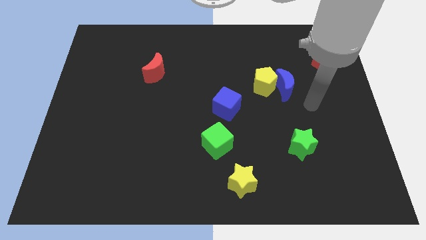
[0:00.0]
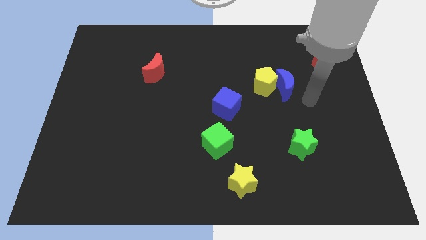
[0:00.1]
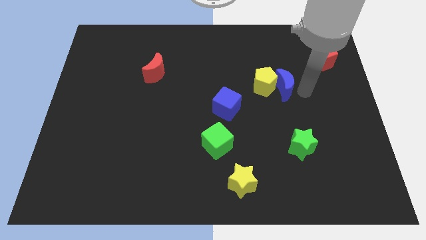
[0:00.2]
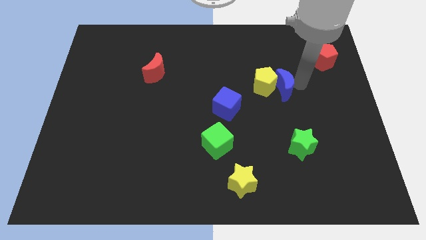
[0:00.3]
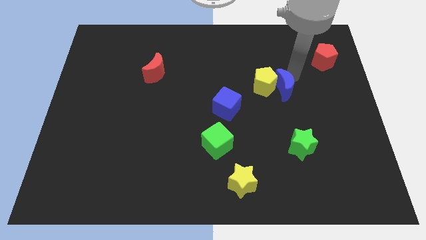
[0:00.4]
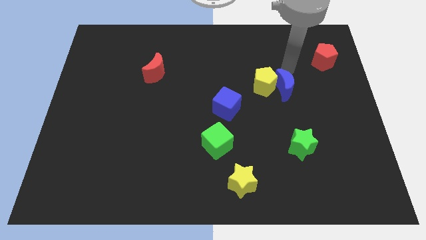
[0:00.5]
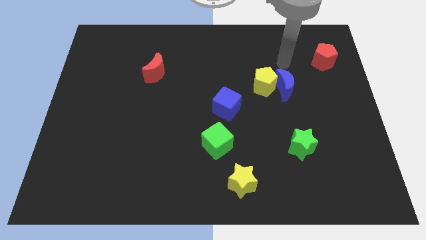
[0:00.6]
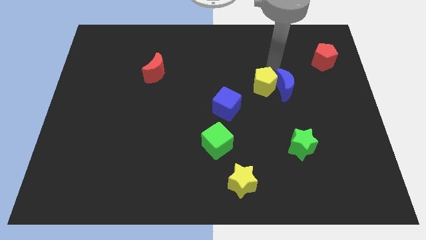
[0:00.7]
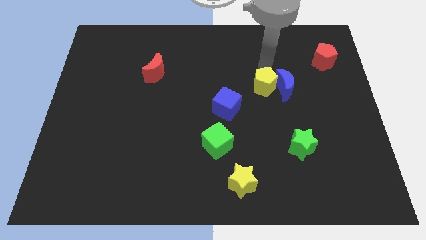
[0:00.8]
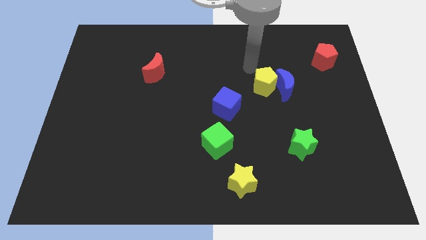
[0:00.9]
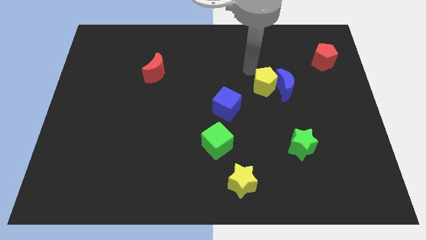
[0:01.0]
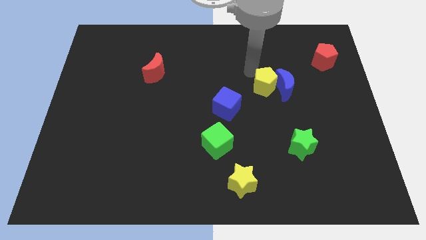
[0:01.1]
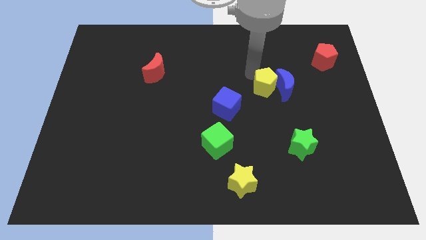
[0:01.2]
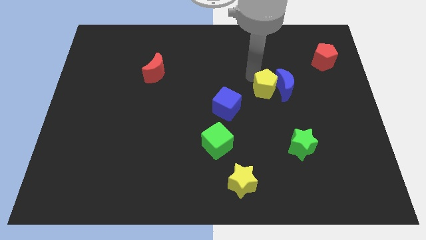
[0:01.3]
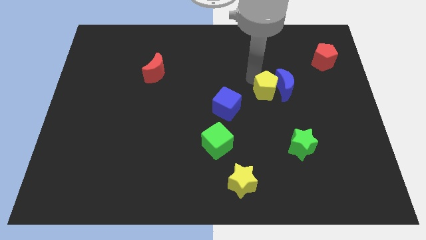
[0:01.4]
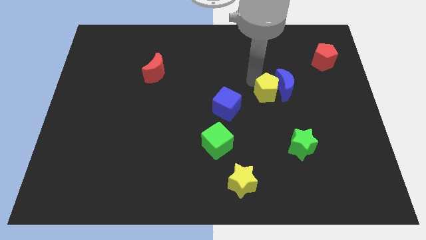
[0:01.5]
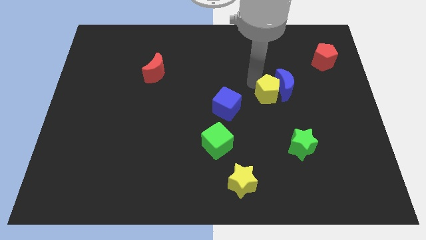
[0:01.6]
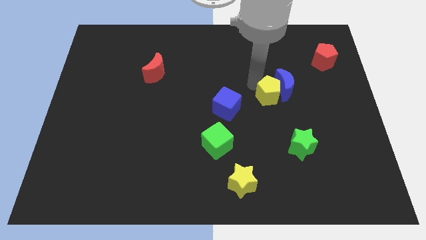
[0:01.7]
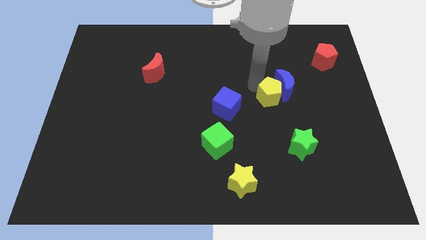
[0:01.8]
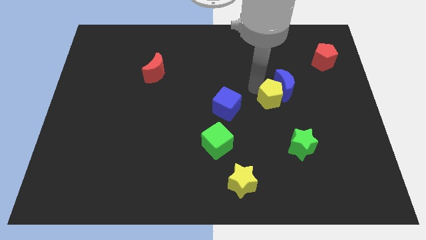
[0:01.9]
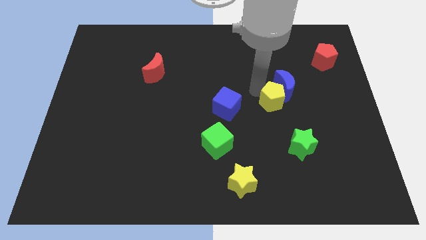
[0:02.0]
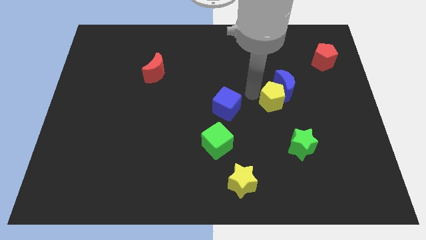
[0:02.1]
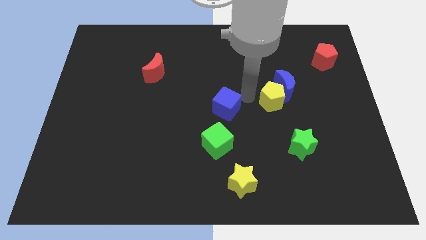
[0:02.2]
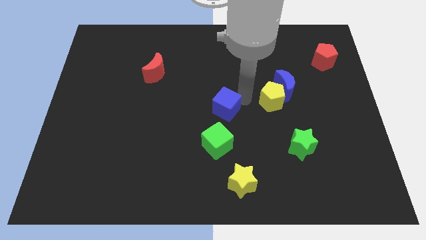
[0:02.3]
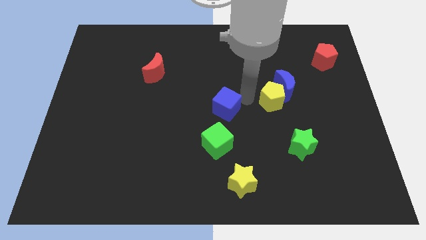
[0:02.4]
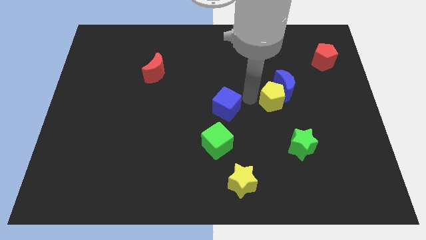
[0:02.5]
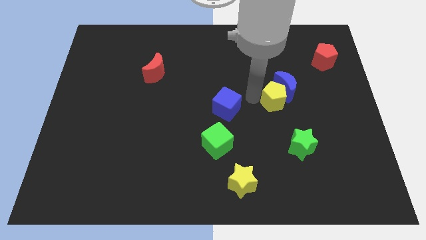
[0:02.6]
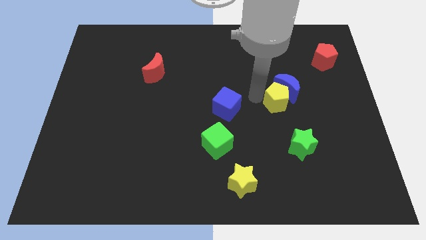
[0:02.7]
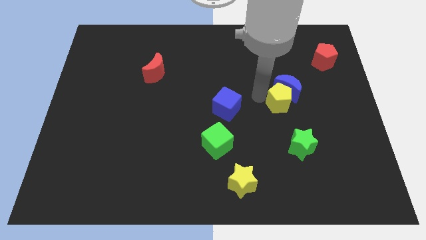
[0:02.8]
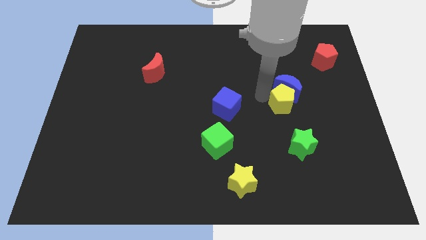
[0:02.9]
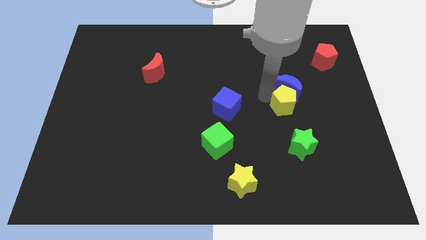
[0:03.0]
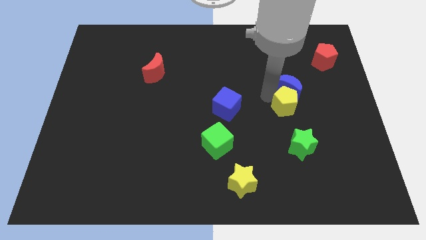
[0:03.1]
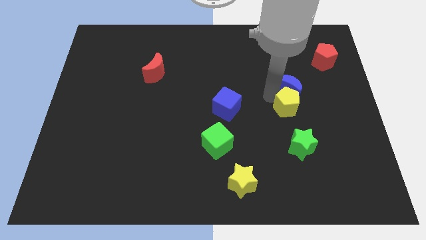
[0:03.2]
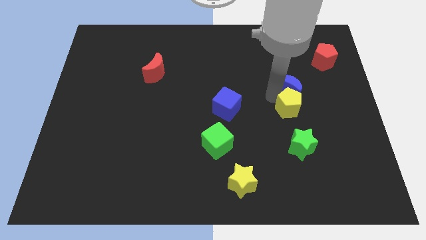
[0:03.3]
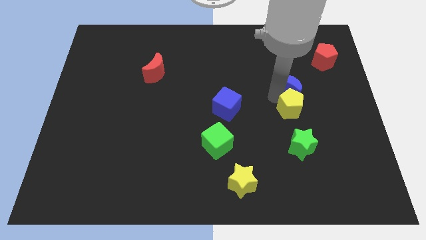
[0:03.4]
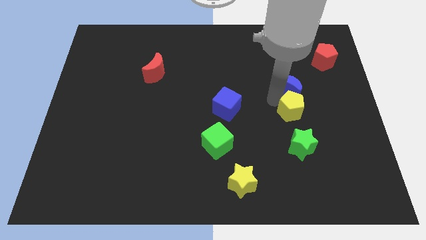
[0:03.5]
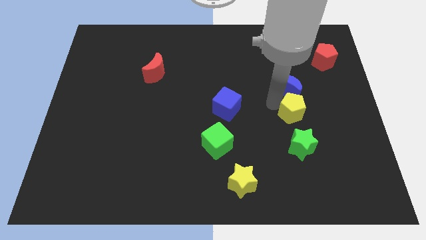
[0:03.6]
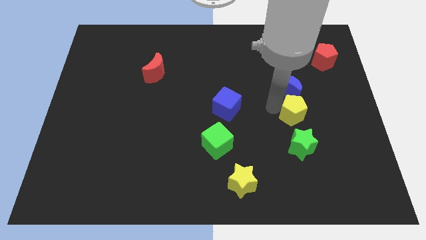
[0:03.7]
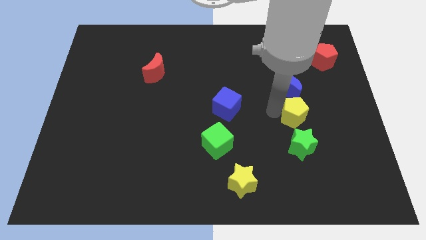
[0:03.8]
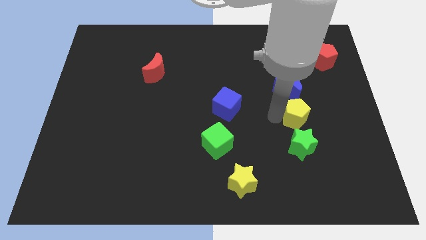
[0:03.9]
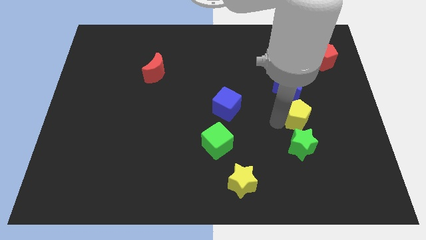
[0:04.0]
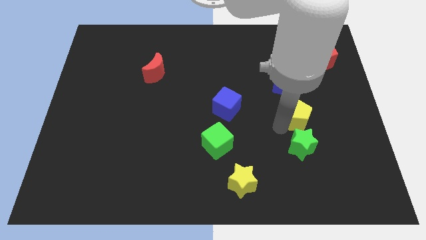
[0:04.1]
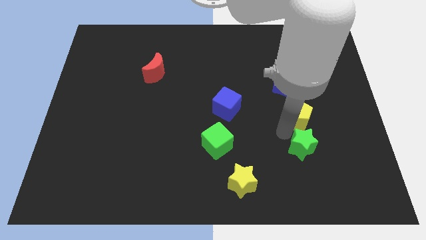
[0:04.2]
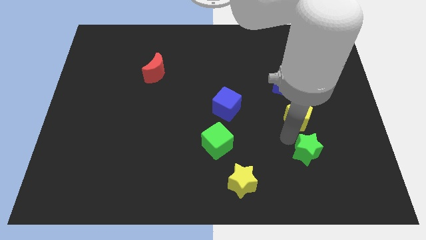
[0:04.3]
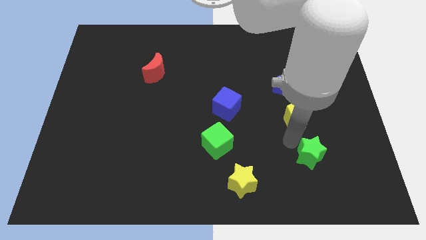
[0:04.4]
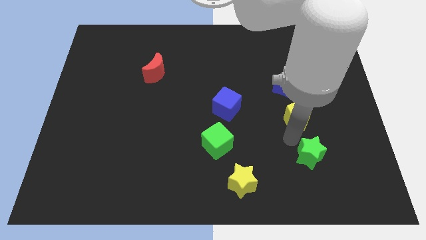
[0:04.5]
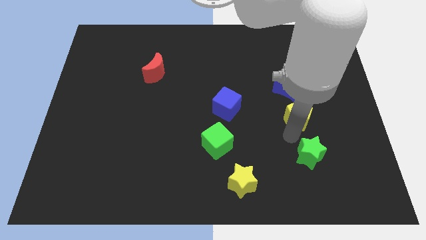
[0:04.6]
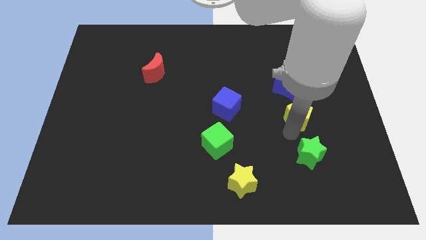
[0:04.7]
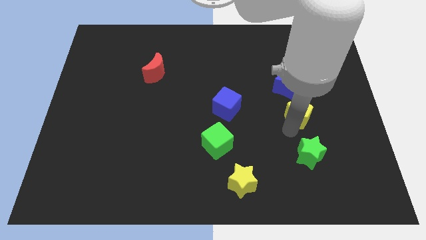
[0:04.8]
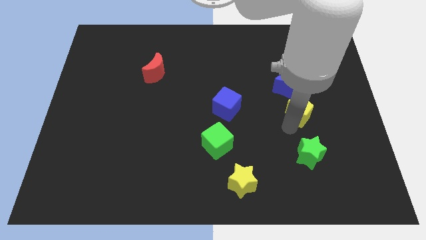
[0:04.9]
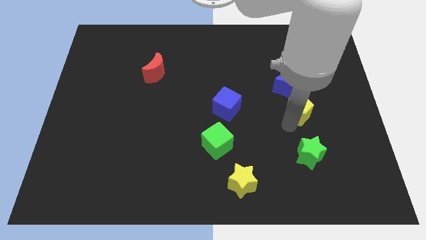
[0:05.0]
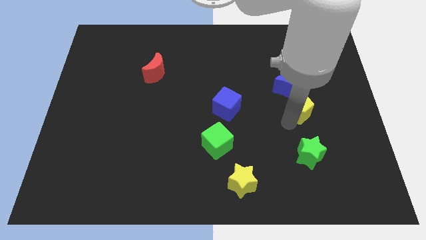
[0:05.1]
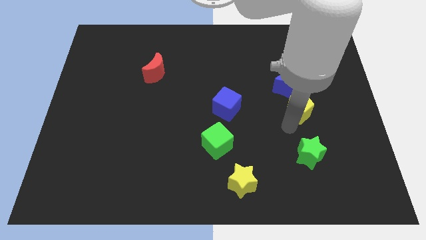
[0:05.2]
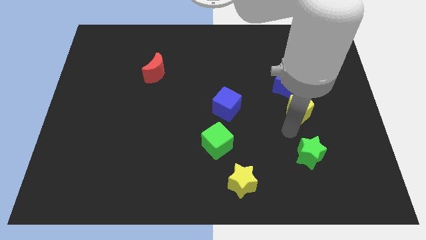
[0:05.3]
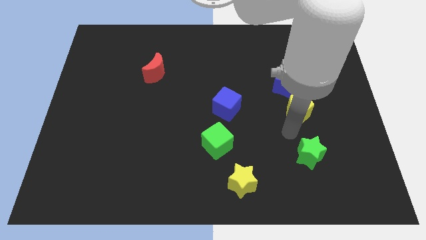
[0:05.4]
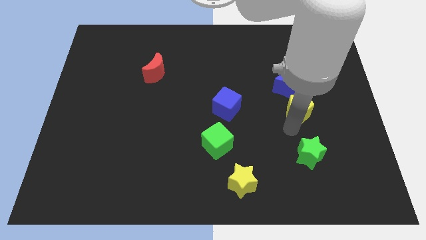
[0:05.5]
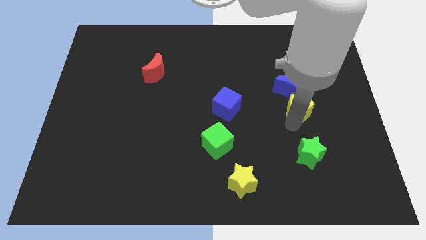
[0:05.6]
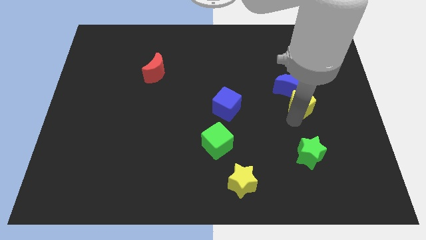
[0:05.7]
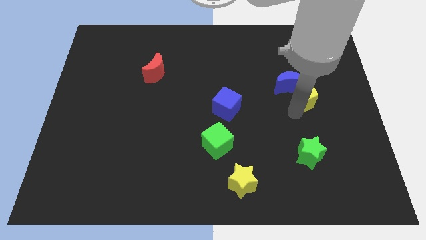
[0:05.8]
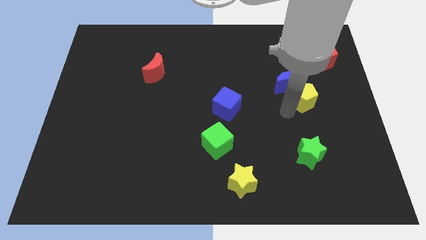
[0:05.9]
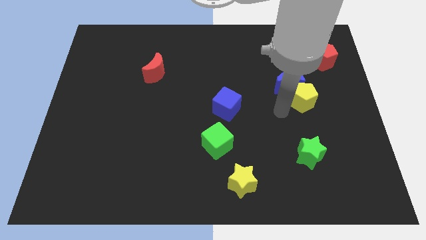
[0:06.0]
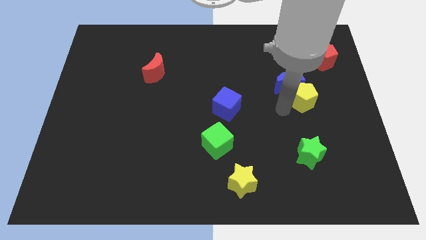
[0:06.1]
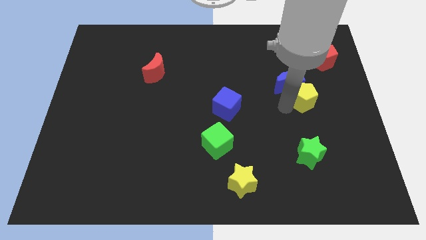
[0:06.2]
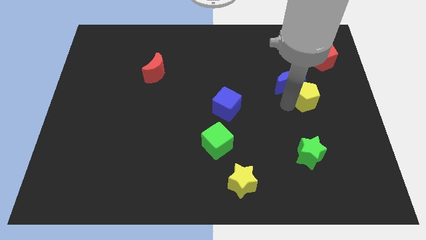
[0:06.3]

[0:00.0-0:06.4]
put the yellow pentagon just right of the blue moon
